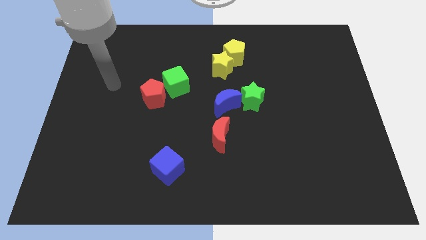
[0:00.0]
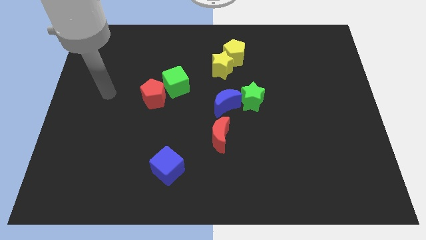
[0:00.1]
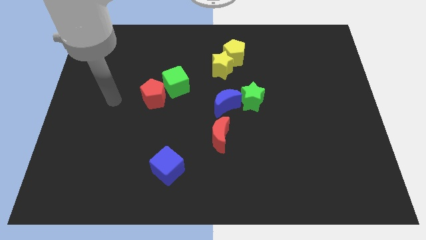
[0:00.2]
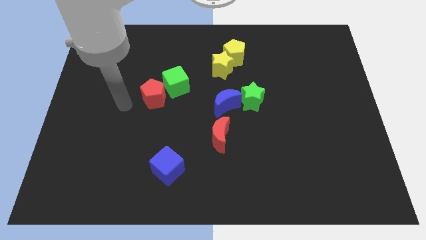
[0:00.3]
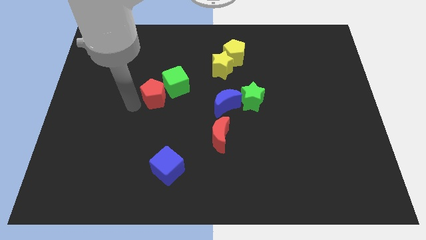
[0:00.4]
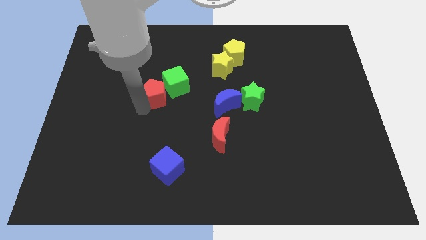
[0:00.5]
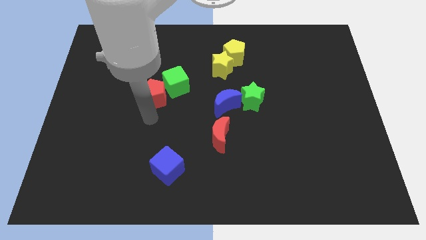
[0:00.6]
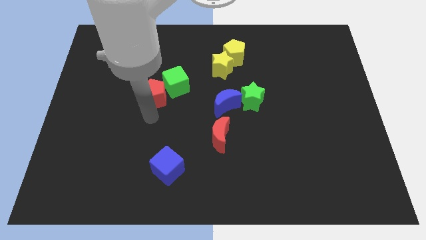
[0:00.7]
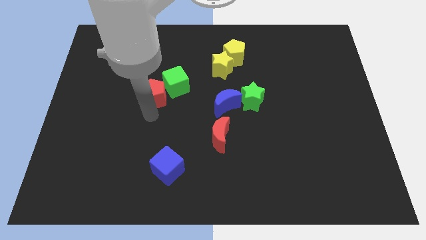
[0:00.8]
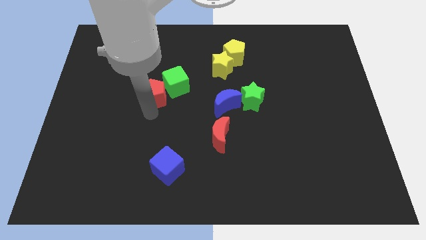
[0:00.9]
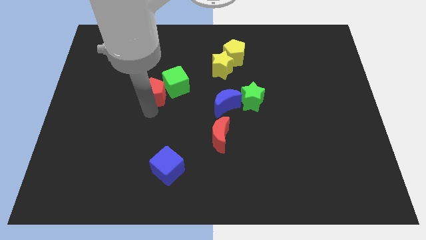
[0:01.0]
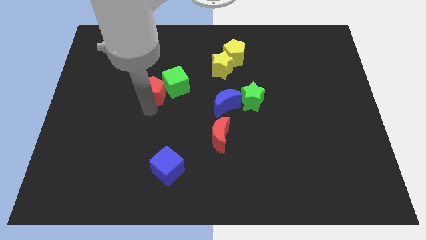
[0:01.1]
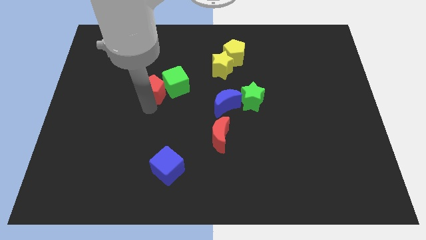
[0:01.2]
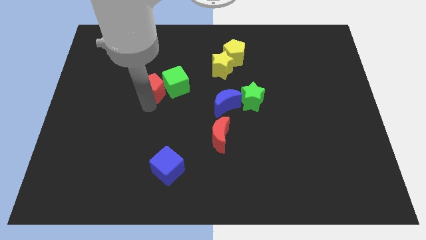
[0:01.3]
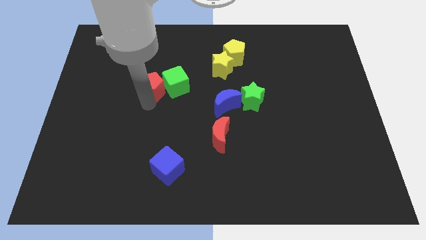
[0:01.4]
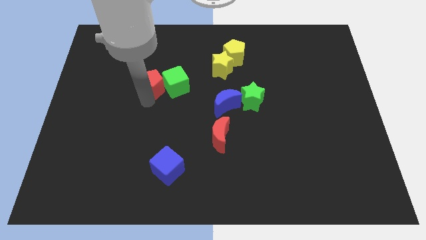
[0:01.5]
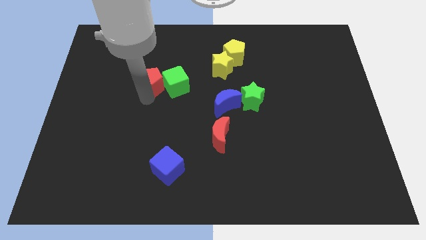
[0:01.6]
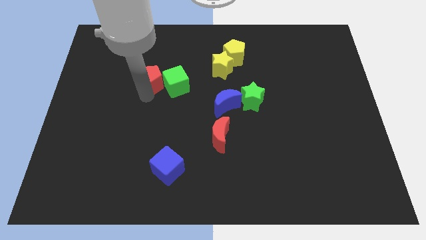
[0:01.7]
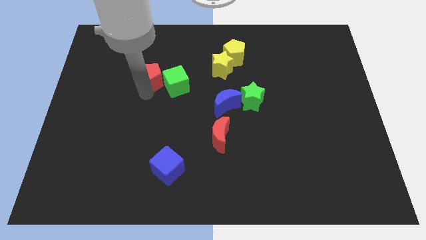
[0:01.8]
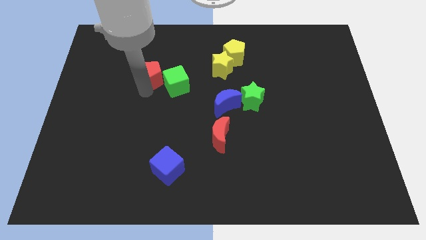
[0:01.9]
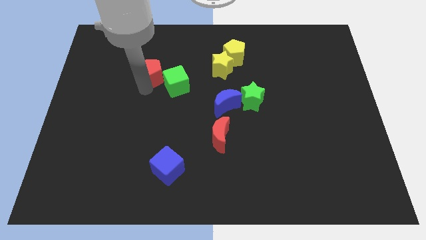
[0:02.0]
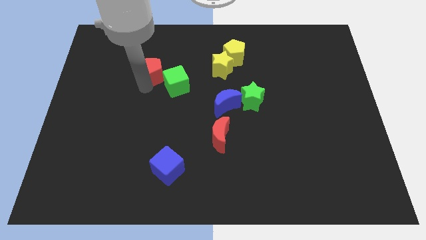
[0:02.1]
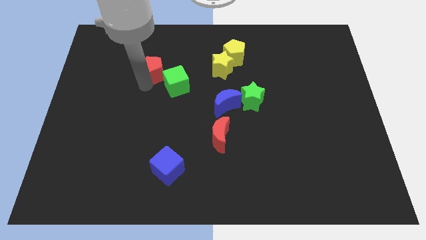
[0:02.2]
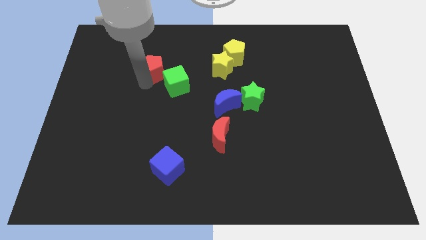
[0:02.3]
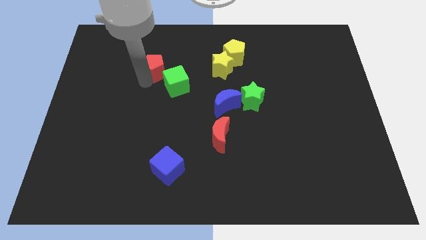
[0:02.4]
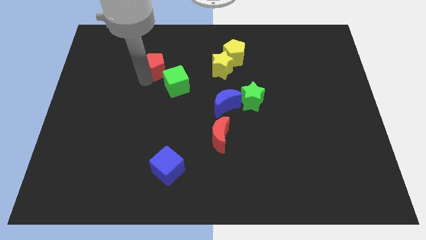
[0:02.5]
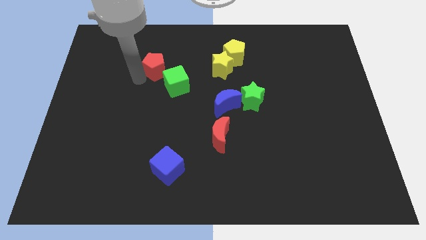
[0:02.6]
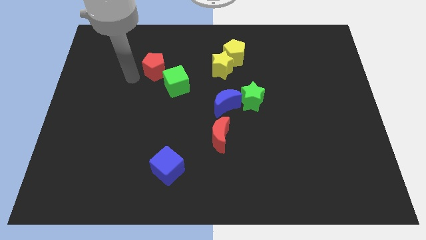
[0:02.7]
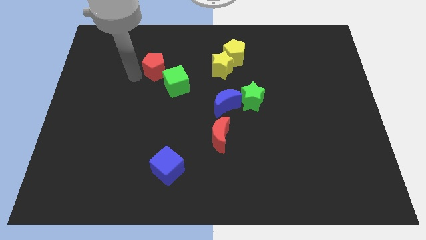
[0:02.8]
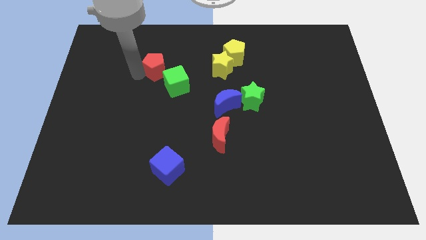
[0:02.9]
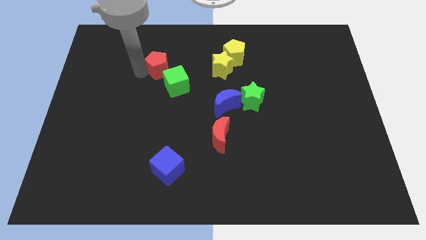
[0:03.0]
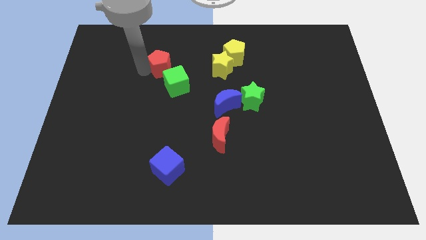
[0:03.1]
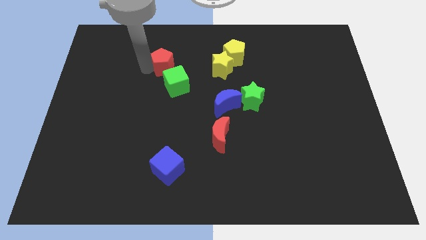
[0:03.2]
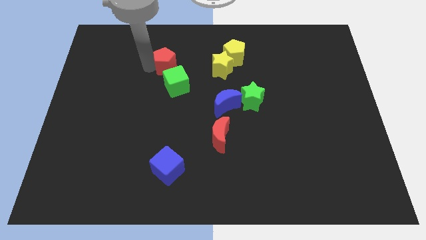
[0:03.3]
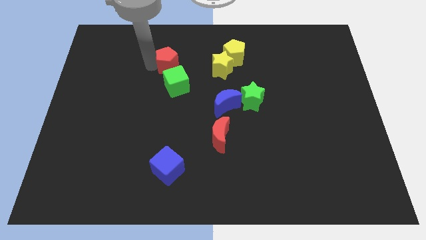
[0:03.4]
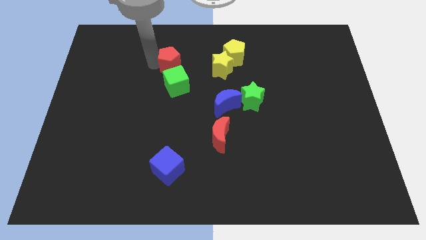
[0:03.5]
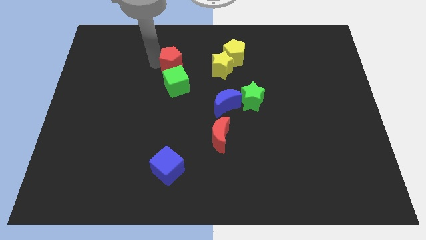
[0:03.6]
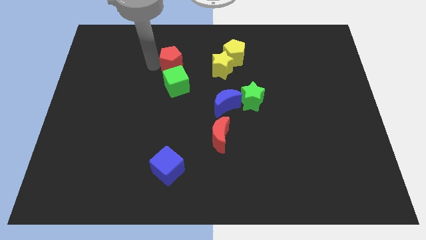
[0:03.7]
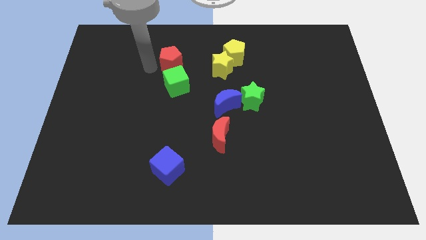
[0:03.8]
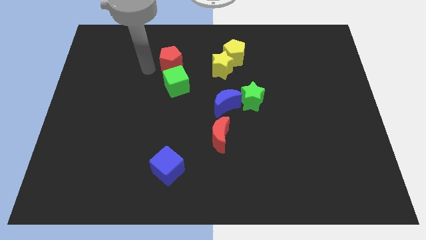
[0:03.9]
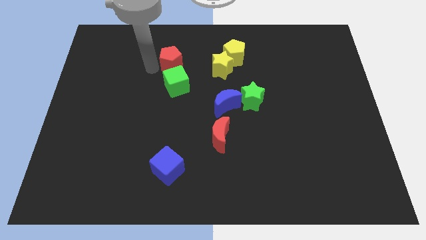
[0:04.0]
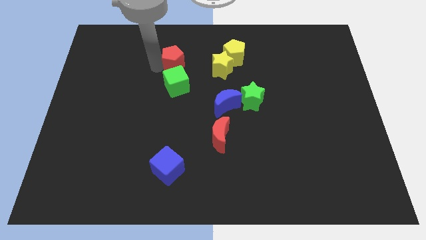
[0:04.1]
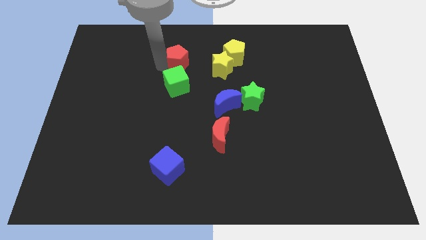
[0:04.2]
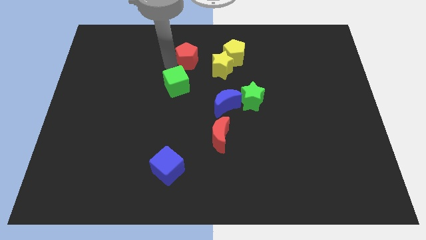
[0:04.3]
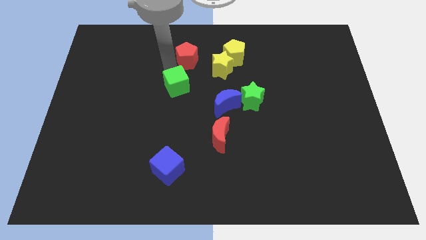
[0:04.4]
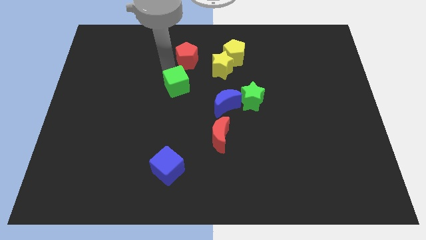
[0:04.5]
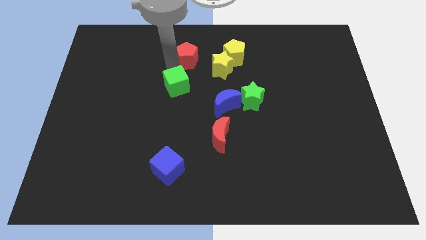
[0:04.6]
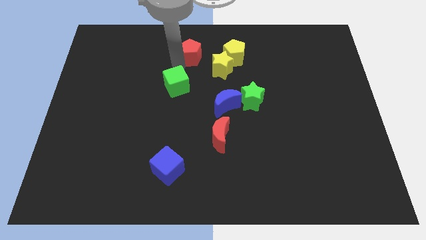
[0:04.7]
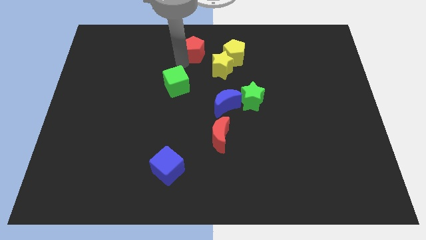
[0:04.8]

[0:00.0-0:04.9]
put the red pentagon to the top side

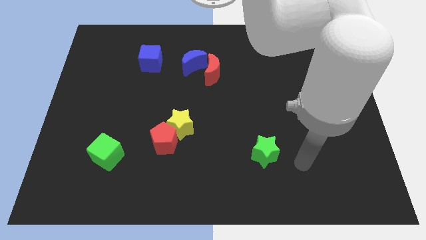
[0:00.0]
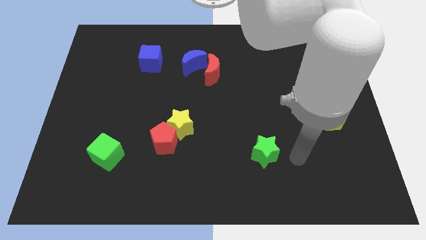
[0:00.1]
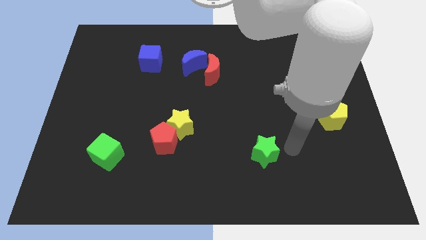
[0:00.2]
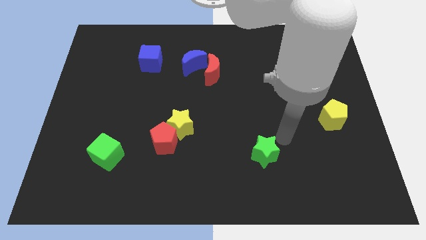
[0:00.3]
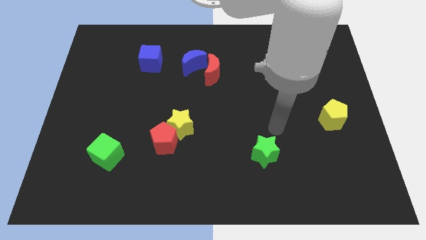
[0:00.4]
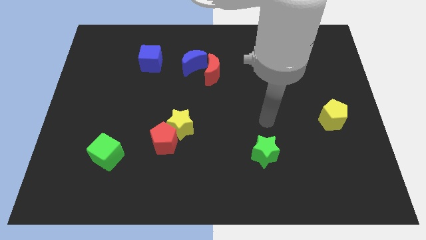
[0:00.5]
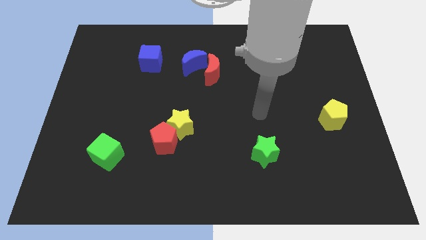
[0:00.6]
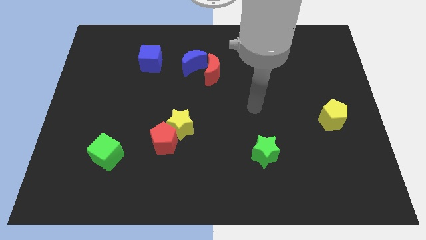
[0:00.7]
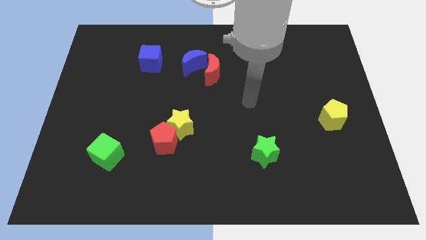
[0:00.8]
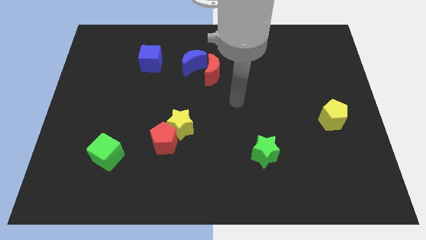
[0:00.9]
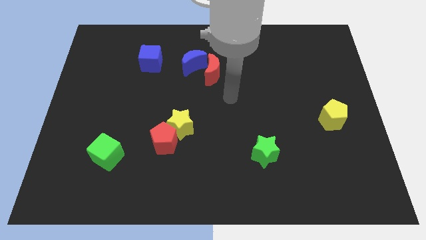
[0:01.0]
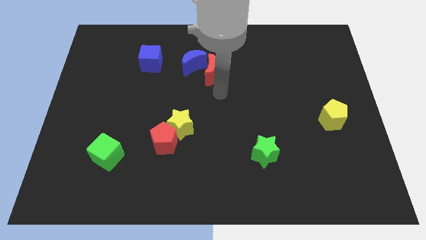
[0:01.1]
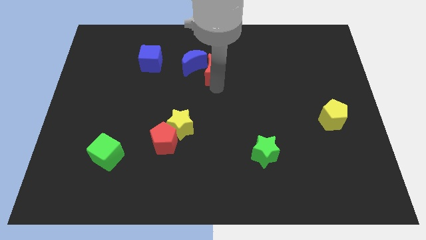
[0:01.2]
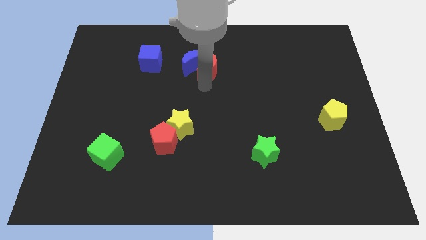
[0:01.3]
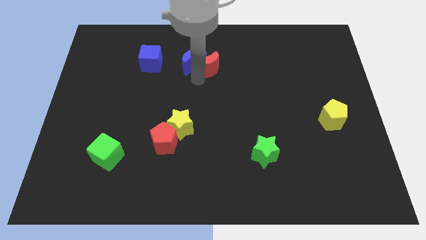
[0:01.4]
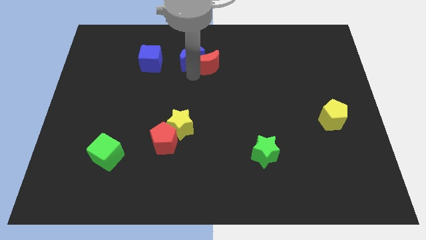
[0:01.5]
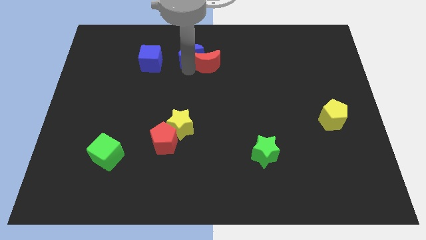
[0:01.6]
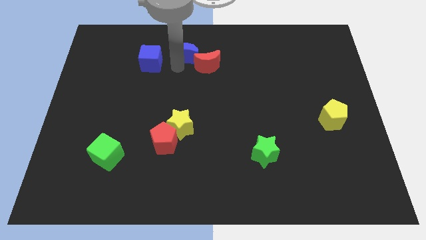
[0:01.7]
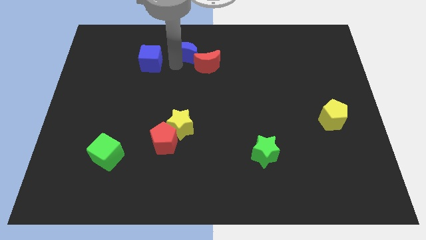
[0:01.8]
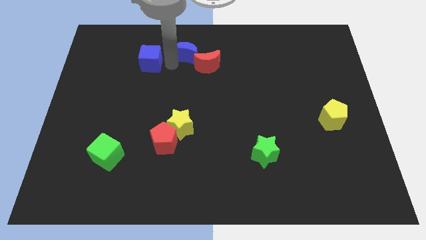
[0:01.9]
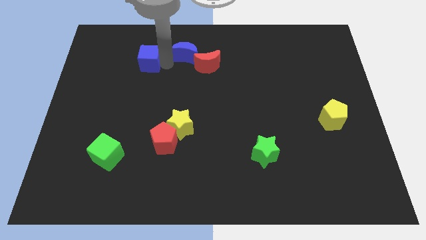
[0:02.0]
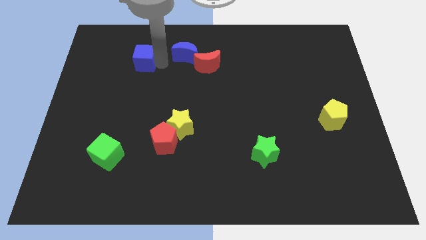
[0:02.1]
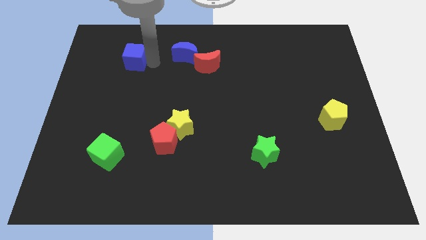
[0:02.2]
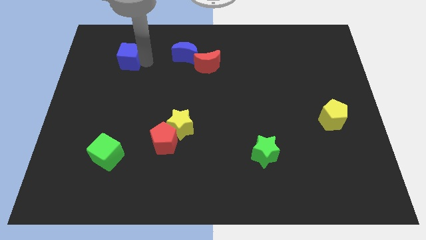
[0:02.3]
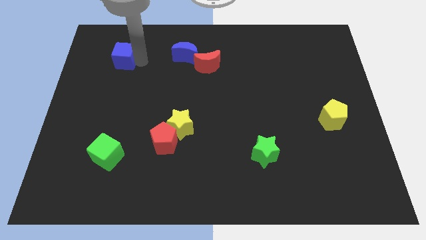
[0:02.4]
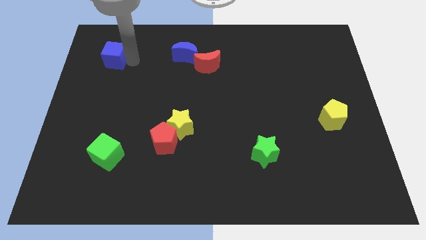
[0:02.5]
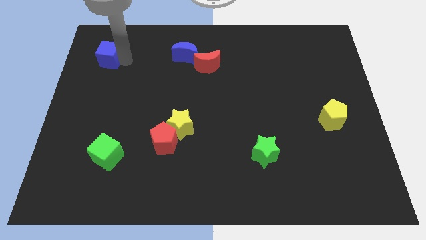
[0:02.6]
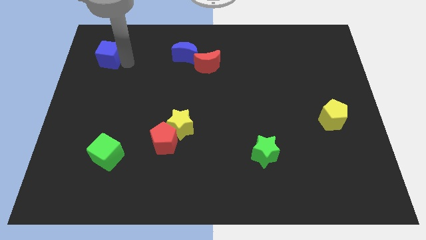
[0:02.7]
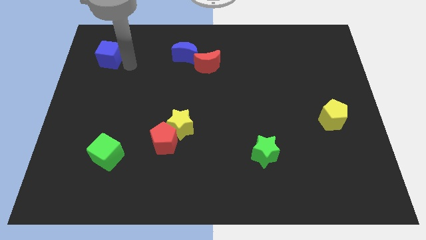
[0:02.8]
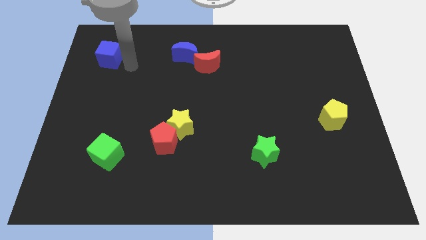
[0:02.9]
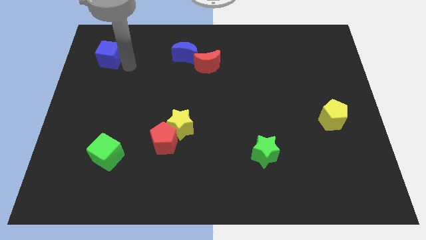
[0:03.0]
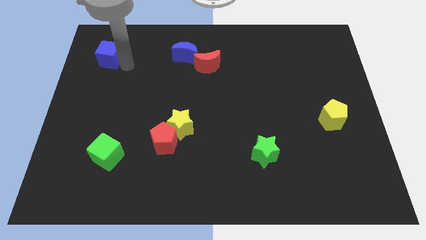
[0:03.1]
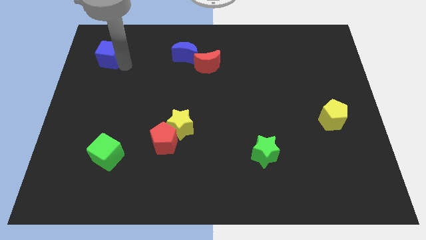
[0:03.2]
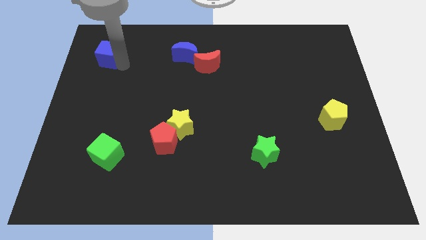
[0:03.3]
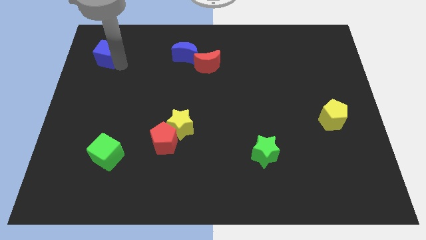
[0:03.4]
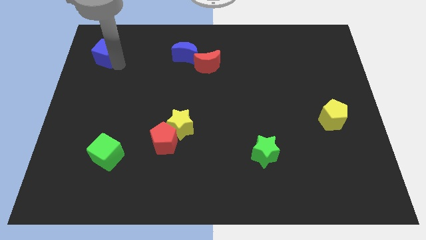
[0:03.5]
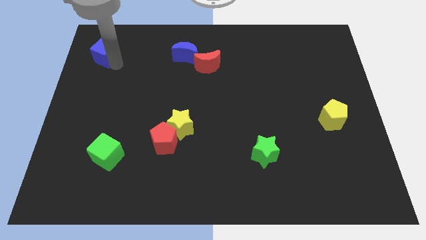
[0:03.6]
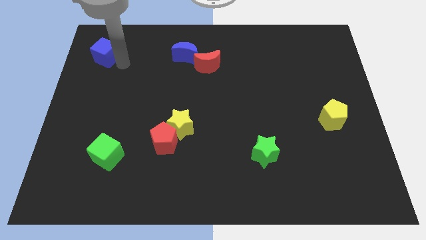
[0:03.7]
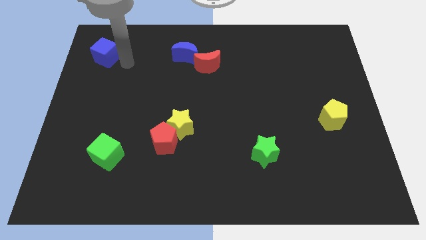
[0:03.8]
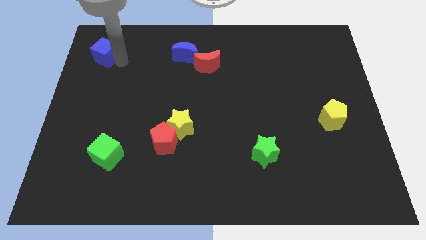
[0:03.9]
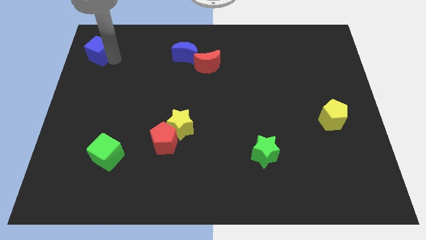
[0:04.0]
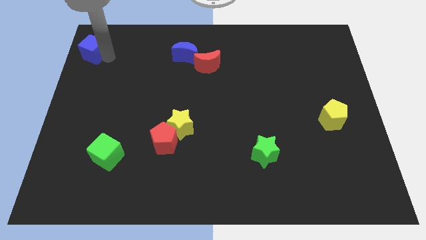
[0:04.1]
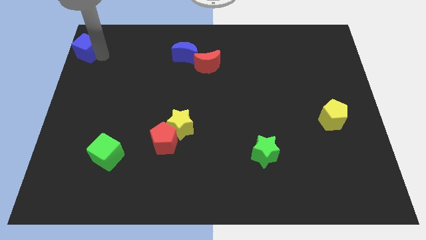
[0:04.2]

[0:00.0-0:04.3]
move the blue cube to the top left of the board
